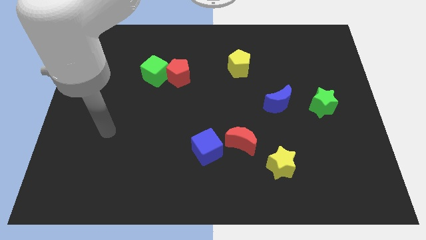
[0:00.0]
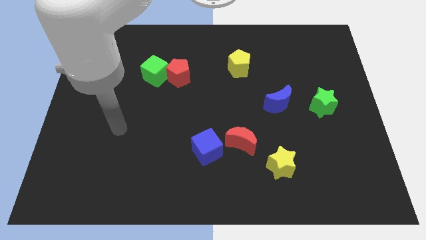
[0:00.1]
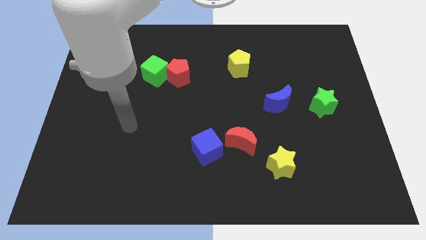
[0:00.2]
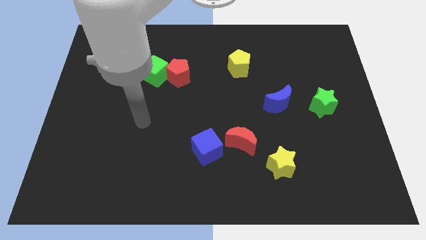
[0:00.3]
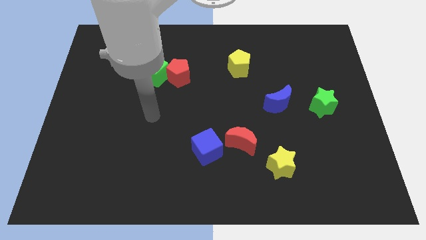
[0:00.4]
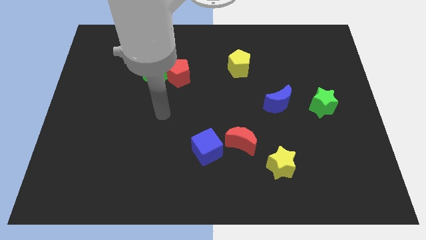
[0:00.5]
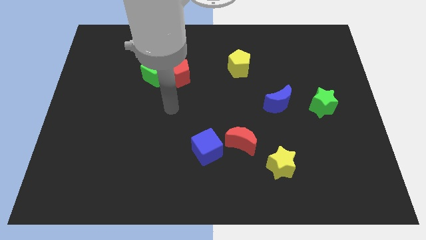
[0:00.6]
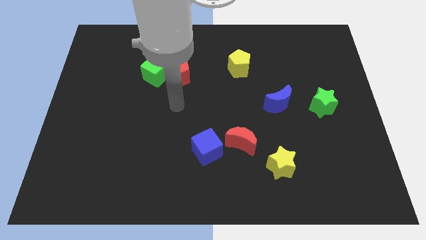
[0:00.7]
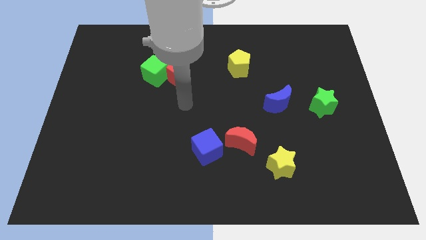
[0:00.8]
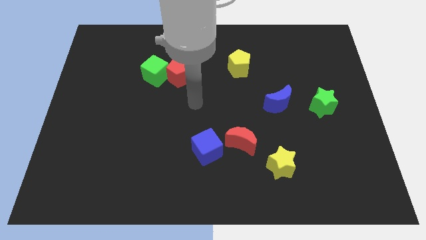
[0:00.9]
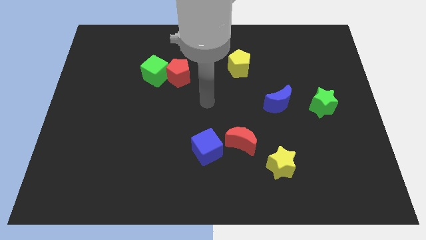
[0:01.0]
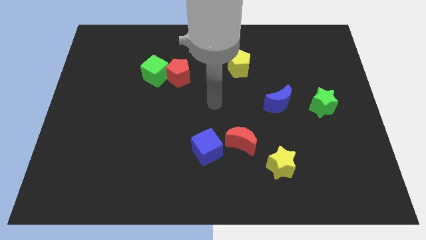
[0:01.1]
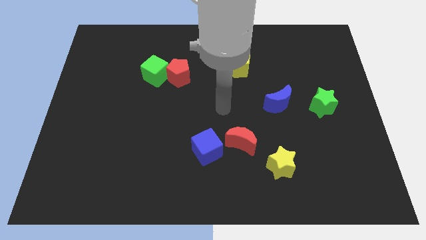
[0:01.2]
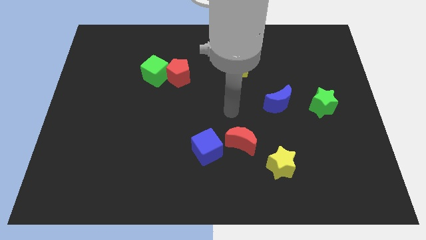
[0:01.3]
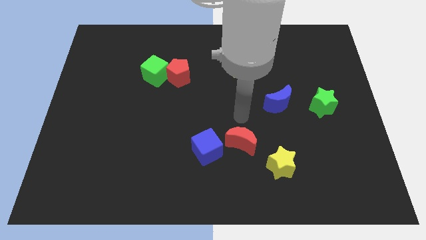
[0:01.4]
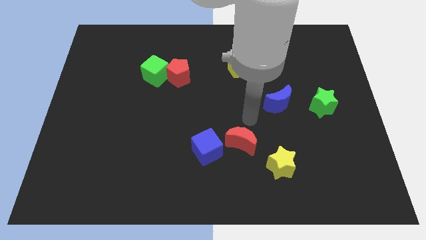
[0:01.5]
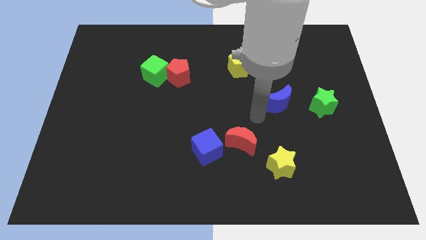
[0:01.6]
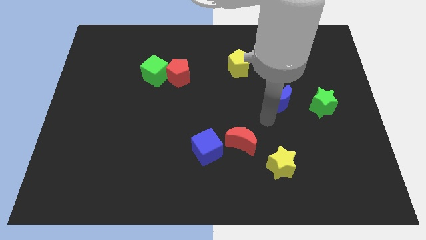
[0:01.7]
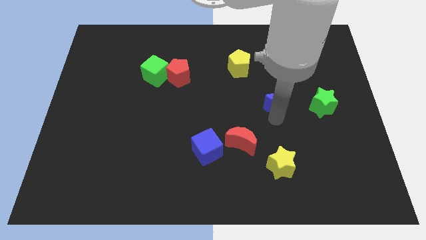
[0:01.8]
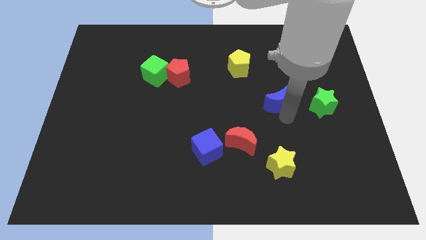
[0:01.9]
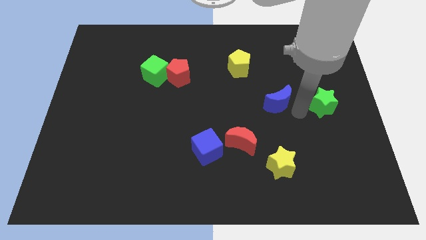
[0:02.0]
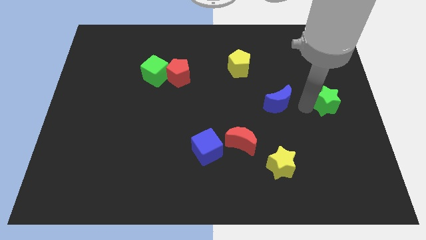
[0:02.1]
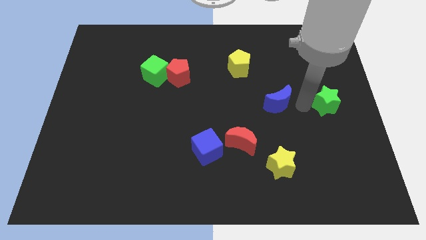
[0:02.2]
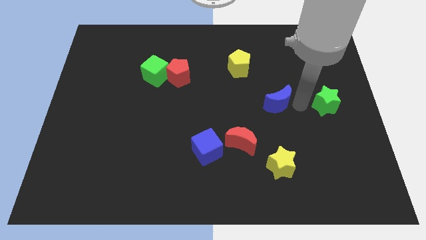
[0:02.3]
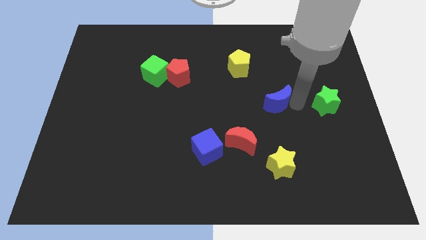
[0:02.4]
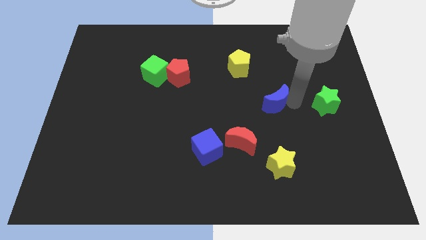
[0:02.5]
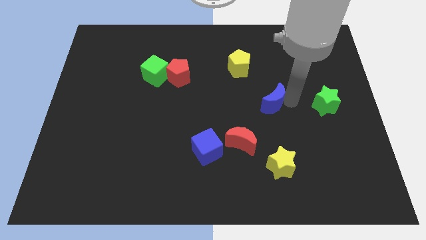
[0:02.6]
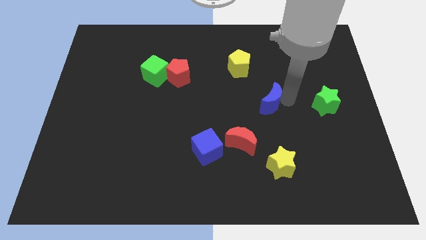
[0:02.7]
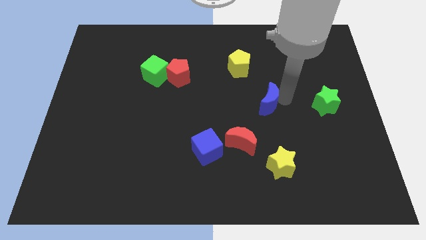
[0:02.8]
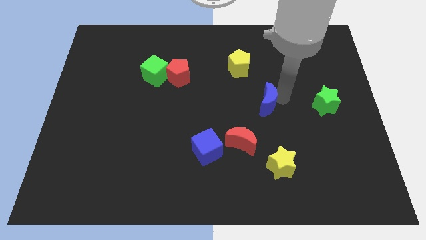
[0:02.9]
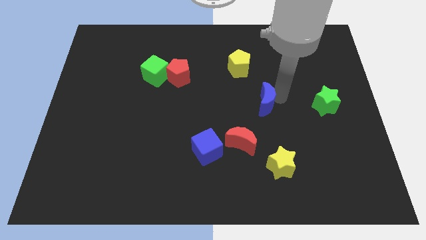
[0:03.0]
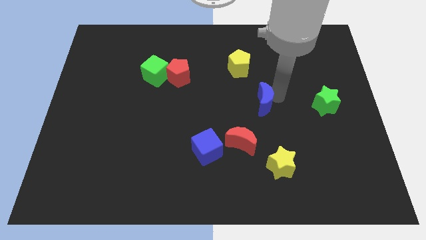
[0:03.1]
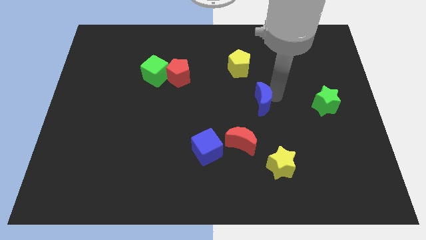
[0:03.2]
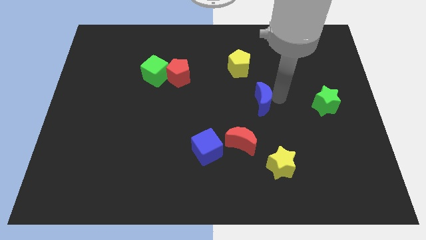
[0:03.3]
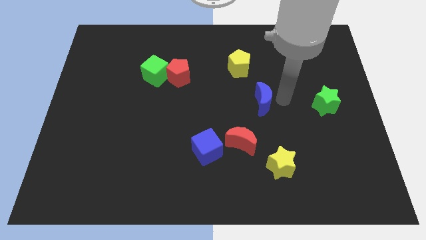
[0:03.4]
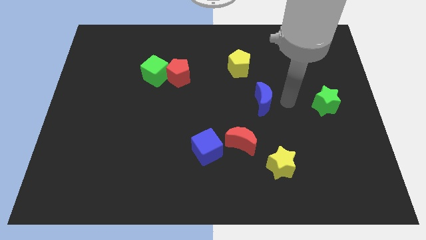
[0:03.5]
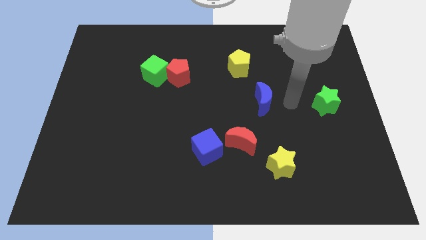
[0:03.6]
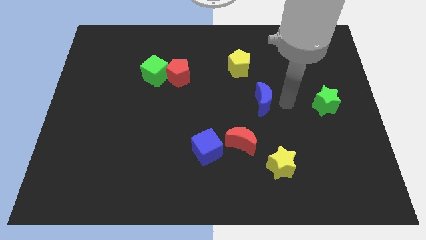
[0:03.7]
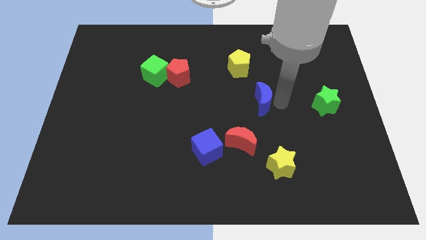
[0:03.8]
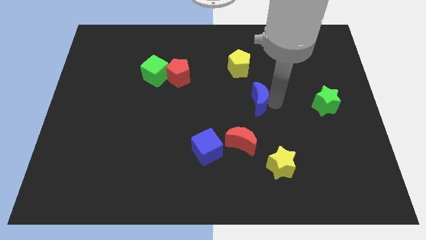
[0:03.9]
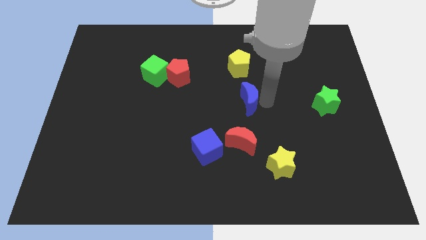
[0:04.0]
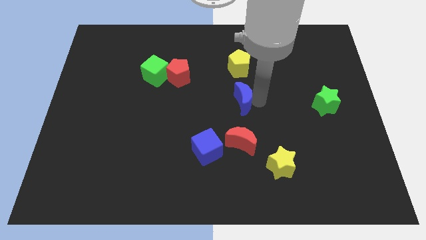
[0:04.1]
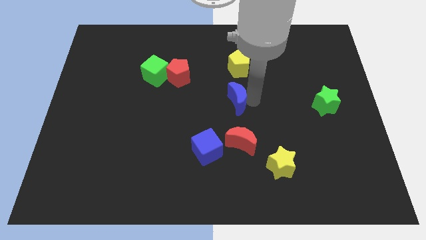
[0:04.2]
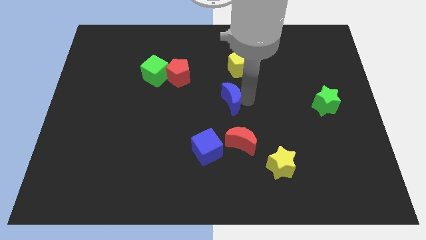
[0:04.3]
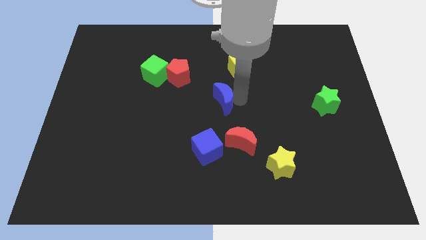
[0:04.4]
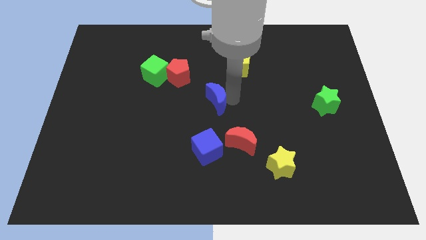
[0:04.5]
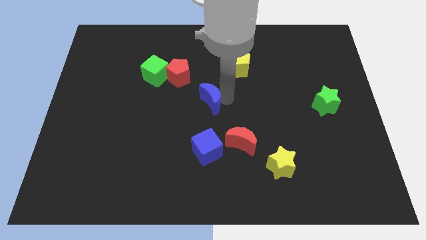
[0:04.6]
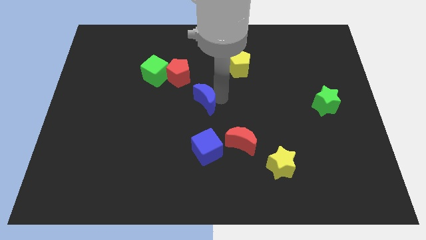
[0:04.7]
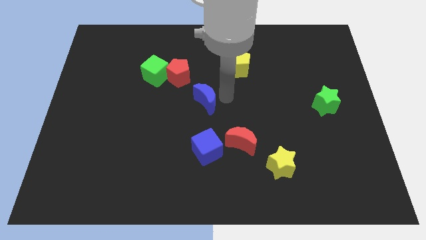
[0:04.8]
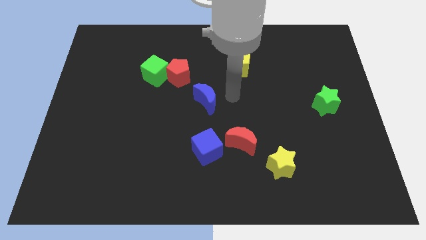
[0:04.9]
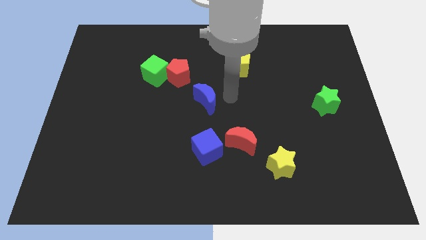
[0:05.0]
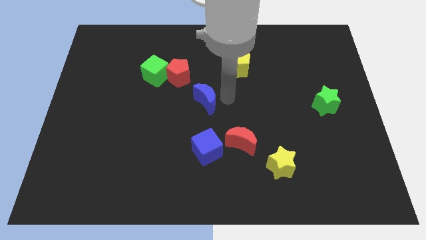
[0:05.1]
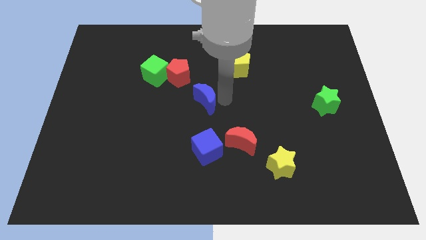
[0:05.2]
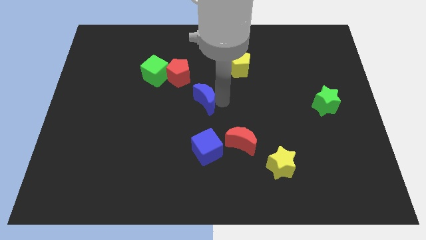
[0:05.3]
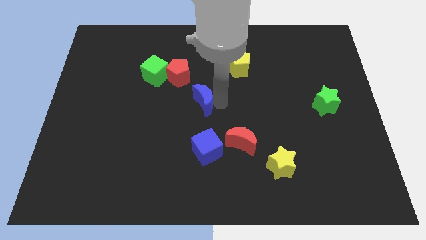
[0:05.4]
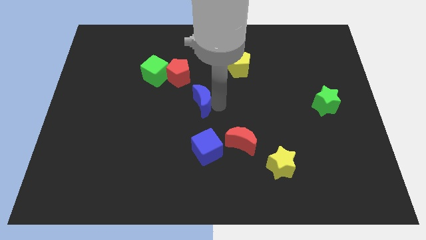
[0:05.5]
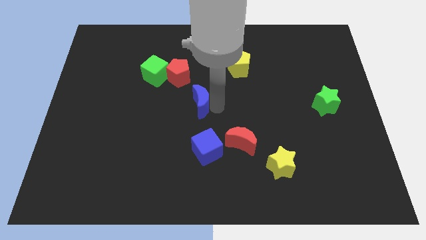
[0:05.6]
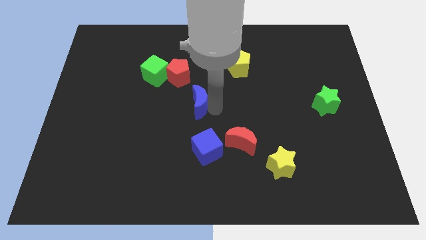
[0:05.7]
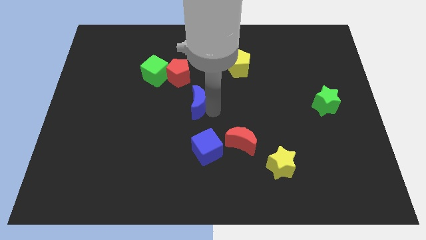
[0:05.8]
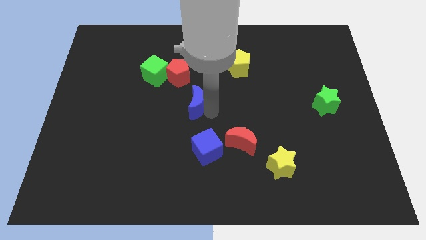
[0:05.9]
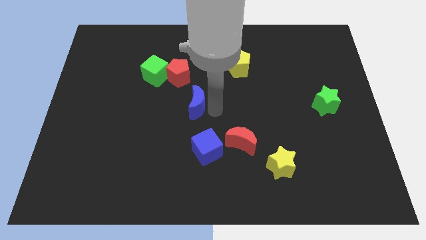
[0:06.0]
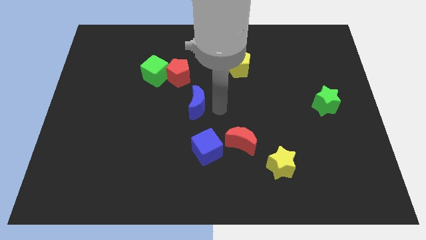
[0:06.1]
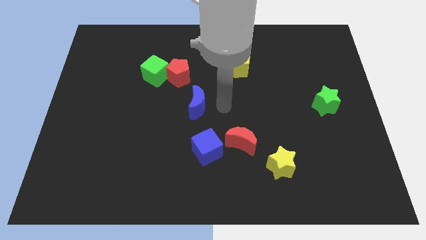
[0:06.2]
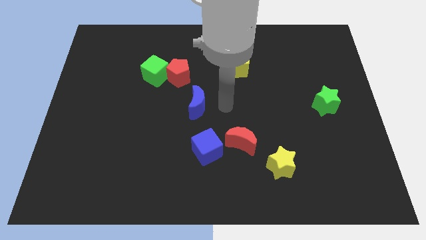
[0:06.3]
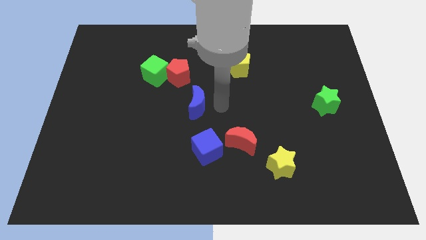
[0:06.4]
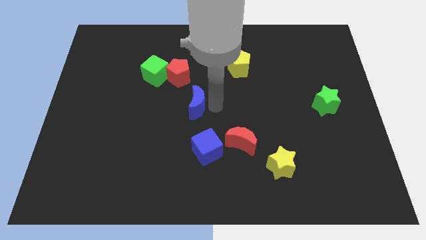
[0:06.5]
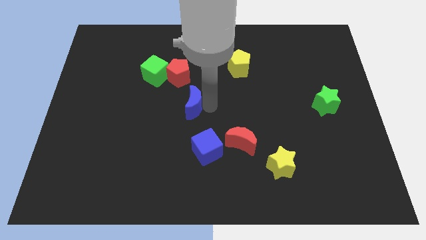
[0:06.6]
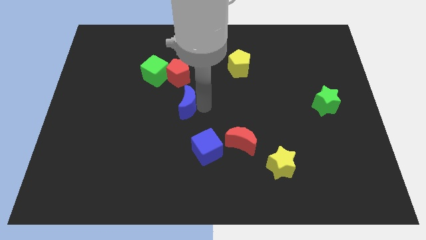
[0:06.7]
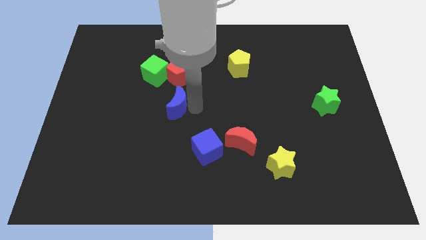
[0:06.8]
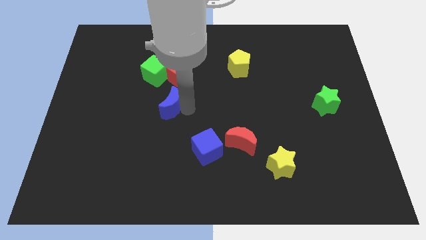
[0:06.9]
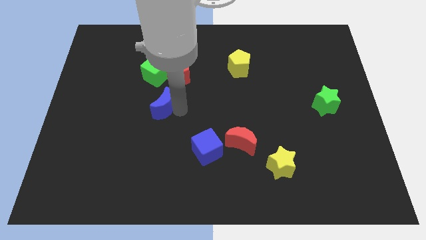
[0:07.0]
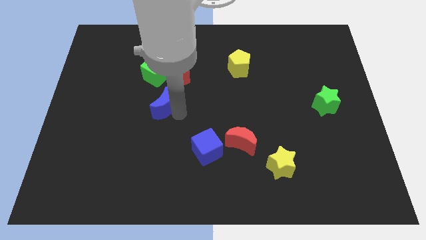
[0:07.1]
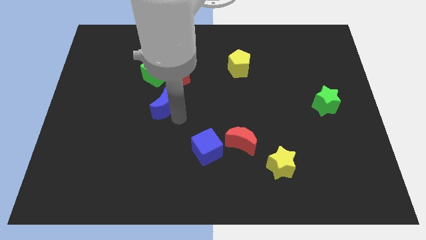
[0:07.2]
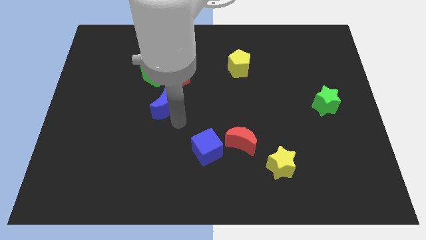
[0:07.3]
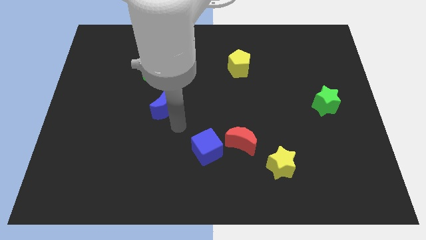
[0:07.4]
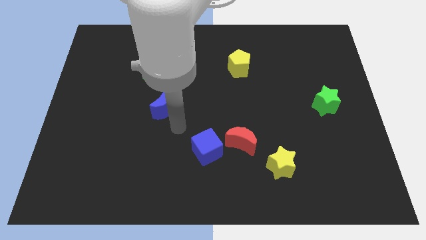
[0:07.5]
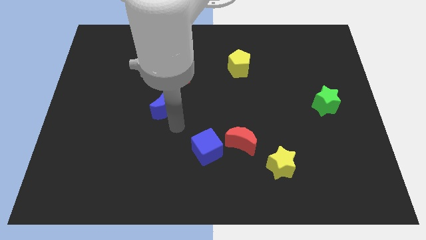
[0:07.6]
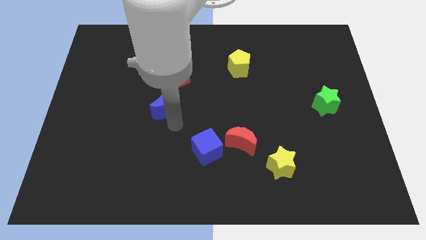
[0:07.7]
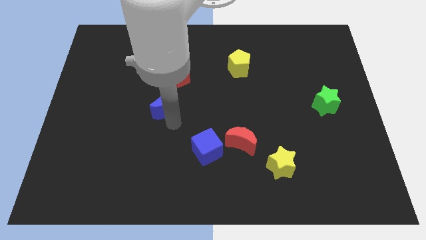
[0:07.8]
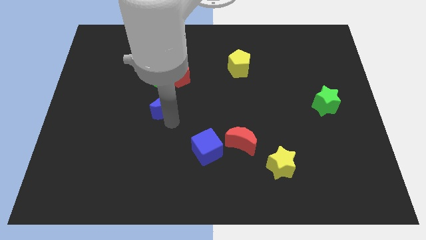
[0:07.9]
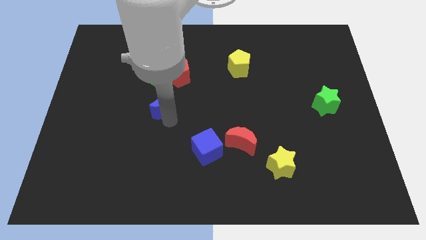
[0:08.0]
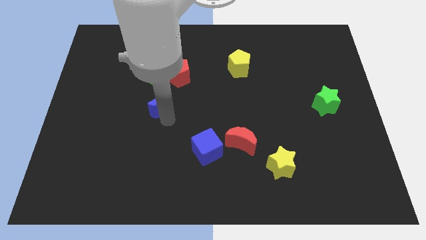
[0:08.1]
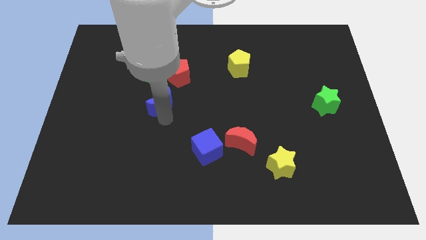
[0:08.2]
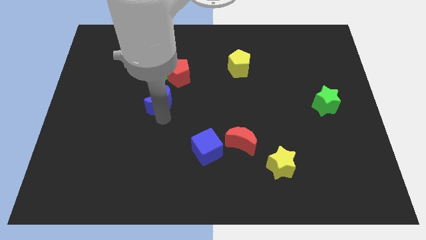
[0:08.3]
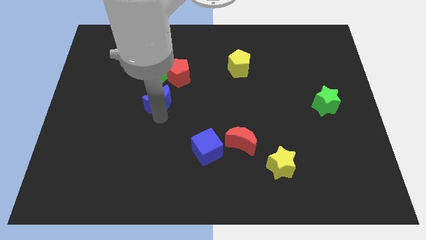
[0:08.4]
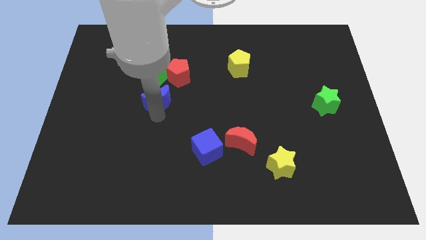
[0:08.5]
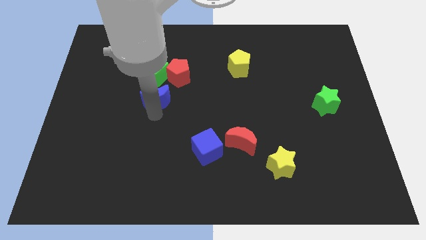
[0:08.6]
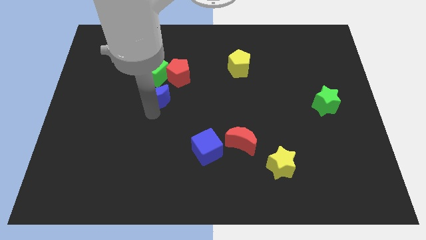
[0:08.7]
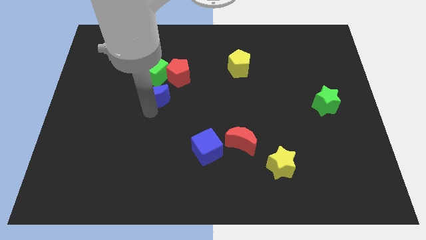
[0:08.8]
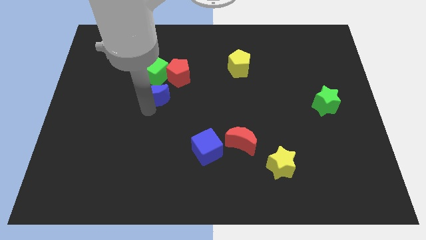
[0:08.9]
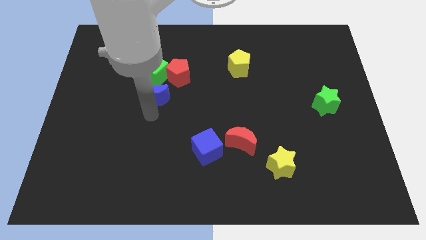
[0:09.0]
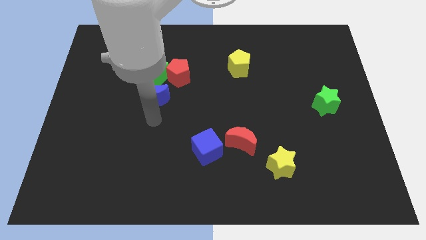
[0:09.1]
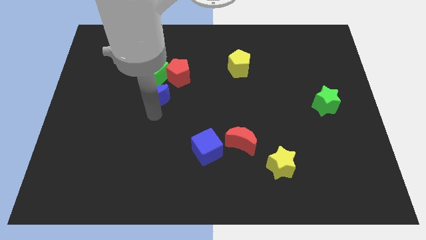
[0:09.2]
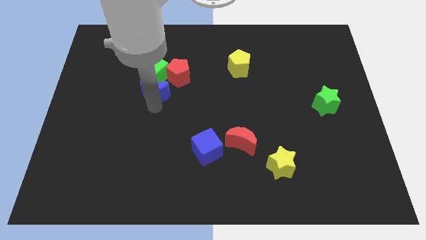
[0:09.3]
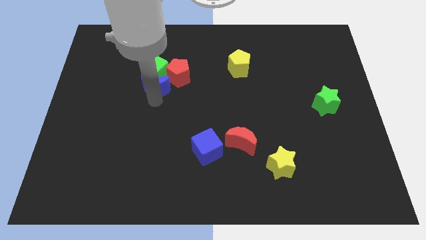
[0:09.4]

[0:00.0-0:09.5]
move the blue moon towards the green cube
